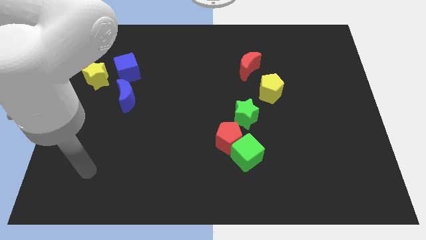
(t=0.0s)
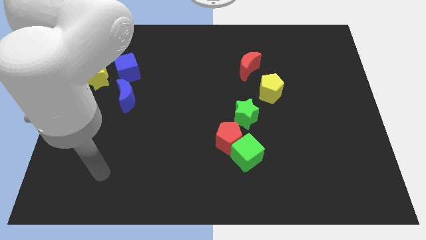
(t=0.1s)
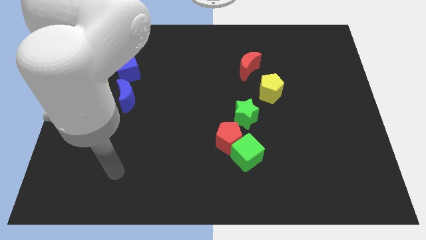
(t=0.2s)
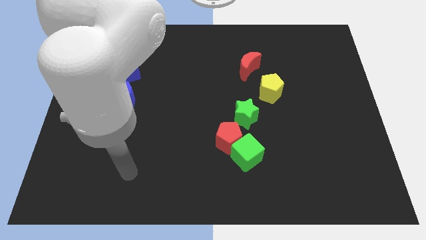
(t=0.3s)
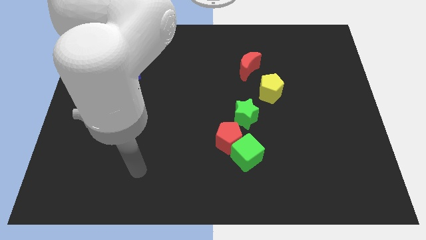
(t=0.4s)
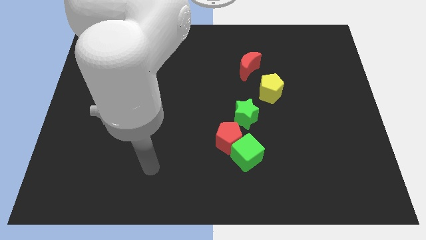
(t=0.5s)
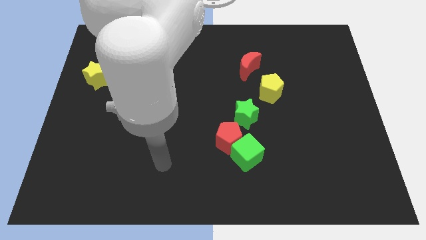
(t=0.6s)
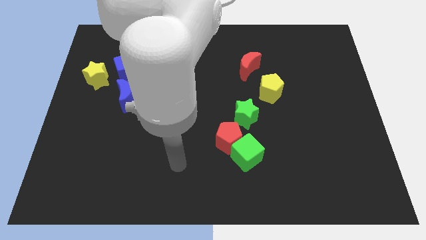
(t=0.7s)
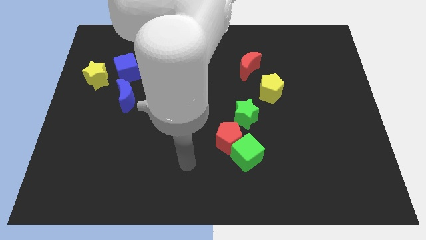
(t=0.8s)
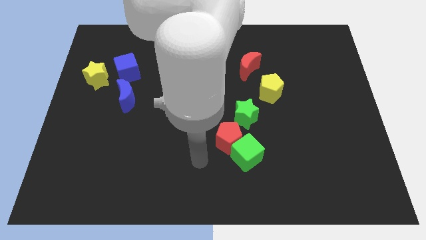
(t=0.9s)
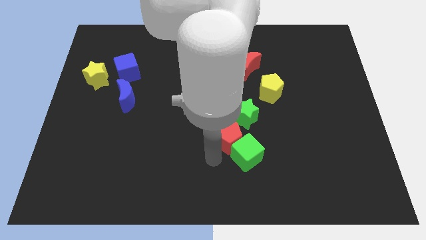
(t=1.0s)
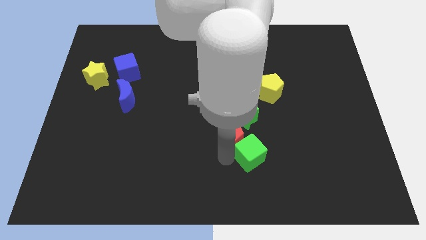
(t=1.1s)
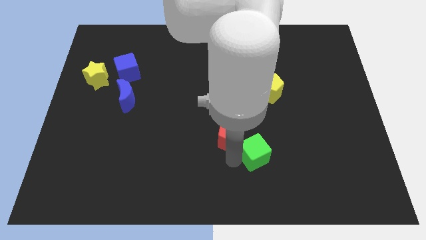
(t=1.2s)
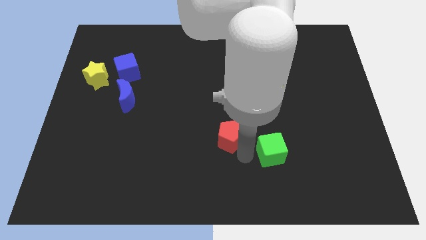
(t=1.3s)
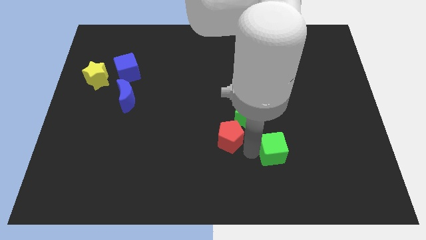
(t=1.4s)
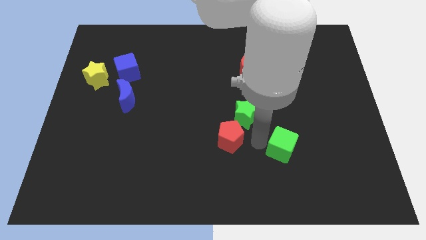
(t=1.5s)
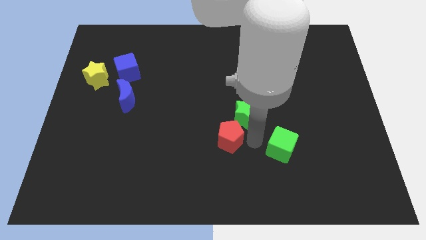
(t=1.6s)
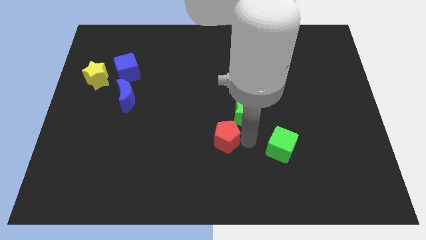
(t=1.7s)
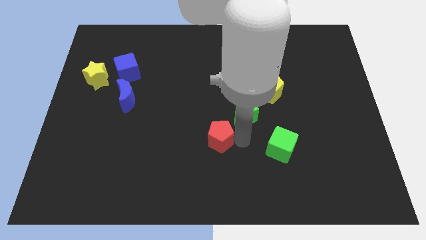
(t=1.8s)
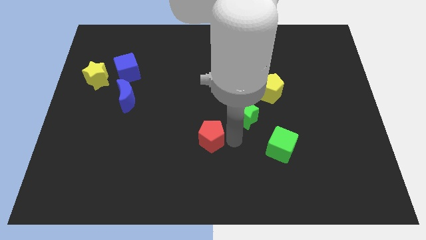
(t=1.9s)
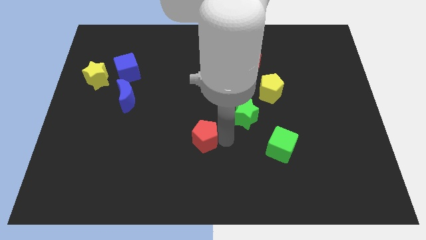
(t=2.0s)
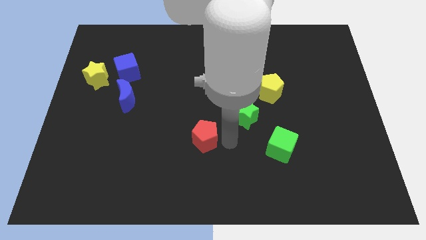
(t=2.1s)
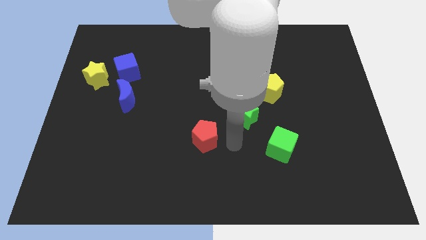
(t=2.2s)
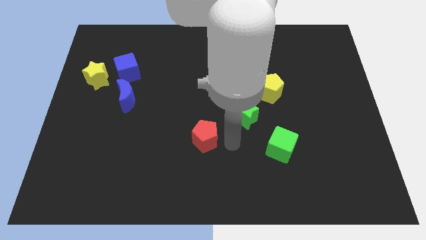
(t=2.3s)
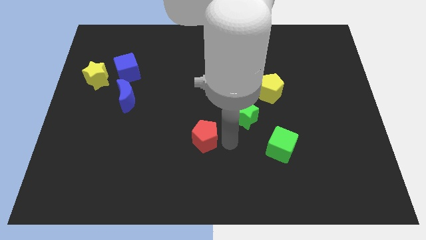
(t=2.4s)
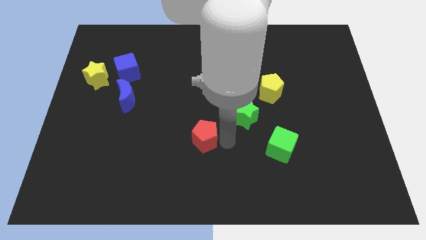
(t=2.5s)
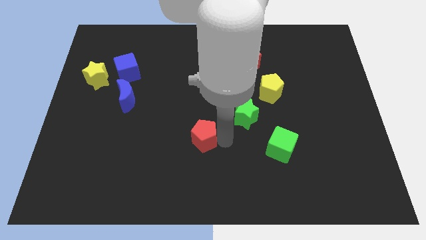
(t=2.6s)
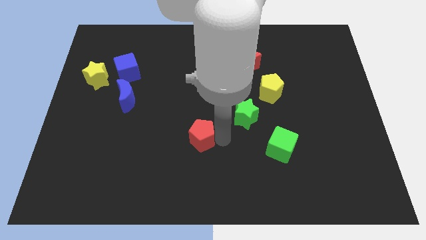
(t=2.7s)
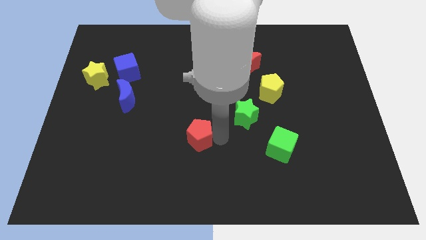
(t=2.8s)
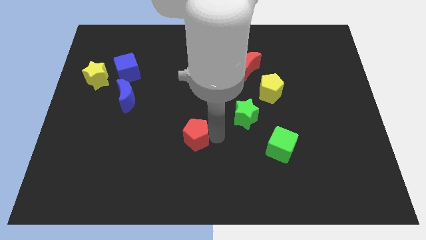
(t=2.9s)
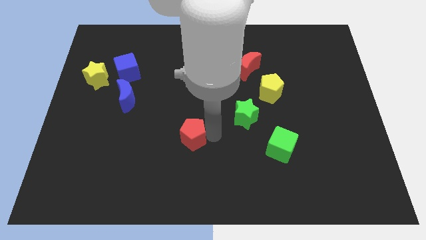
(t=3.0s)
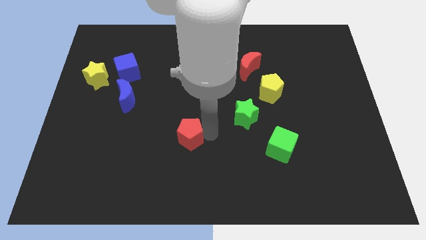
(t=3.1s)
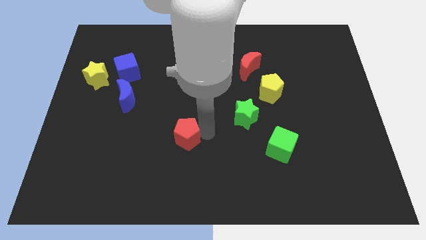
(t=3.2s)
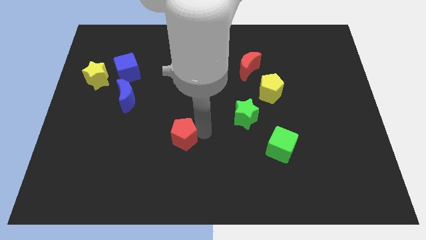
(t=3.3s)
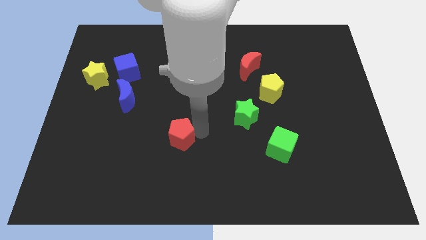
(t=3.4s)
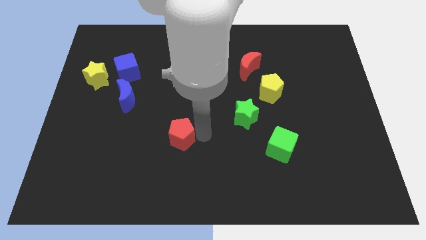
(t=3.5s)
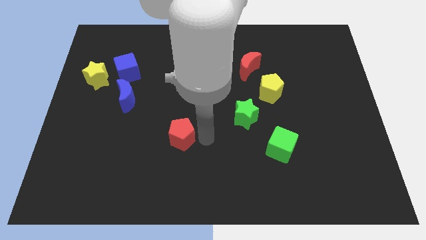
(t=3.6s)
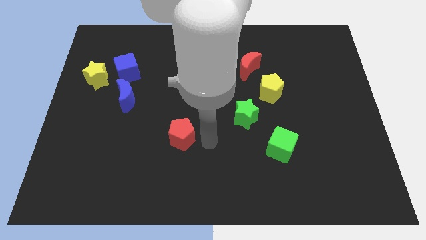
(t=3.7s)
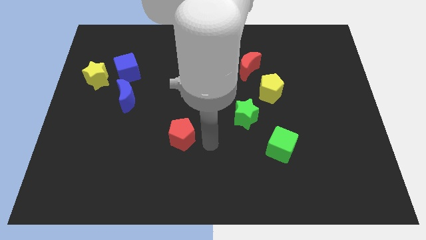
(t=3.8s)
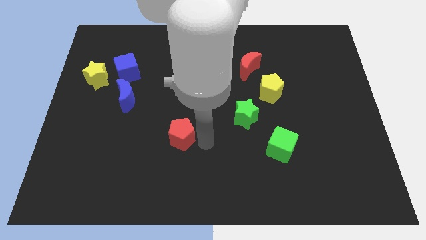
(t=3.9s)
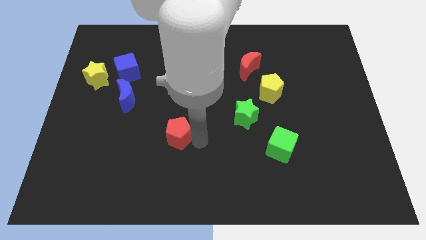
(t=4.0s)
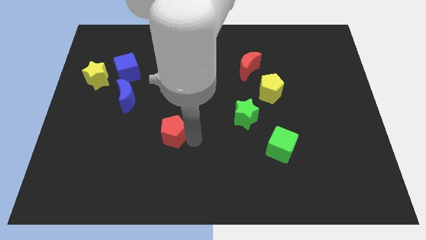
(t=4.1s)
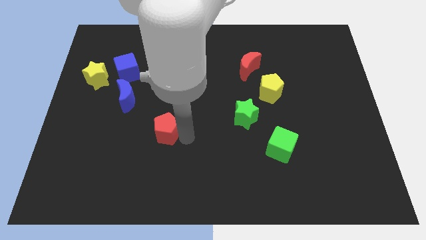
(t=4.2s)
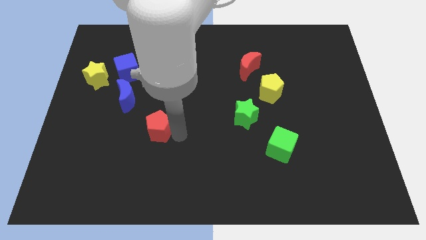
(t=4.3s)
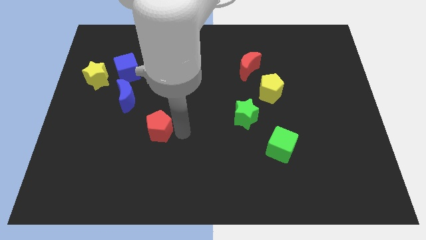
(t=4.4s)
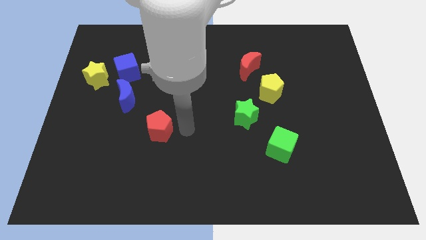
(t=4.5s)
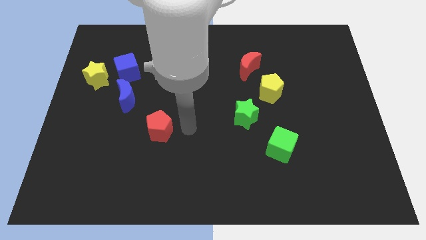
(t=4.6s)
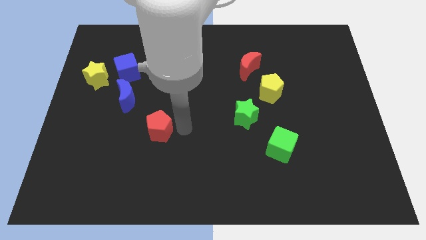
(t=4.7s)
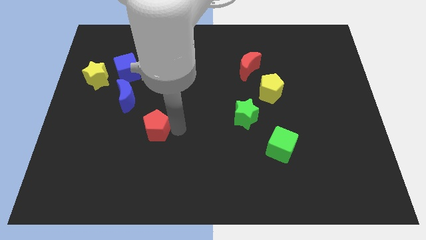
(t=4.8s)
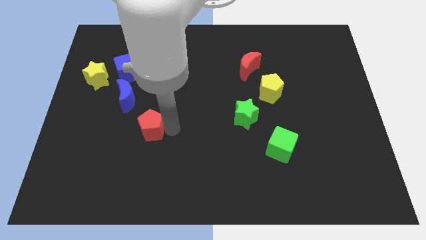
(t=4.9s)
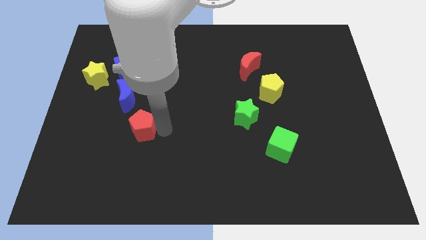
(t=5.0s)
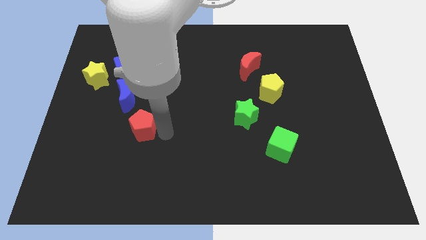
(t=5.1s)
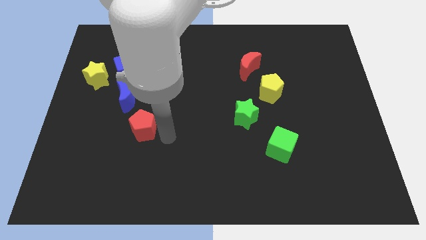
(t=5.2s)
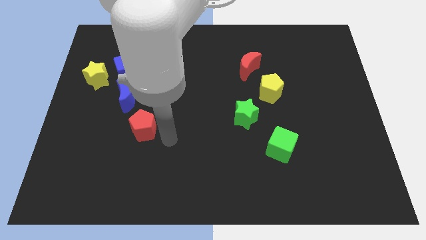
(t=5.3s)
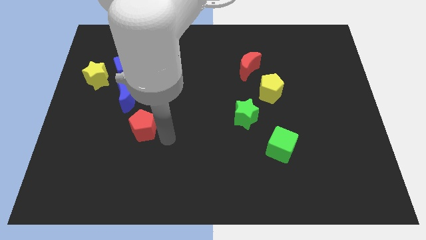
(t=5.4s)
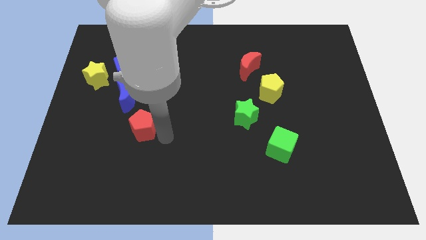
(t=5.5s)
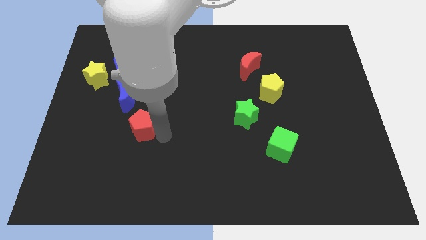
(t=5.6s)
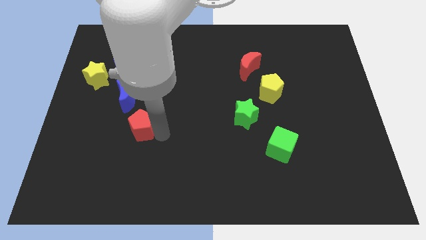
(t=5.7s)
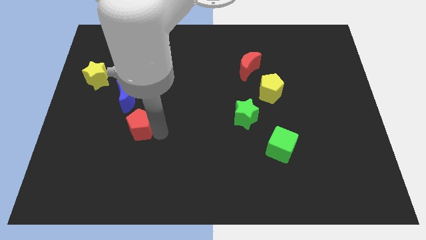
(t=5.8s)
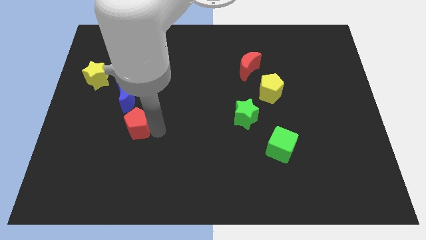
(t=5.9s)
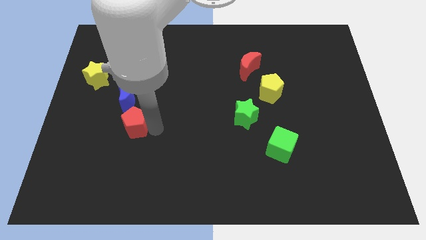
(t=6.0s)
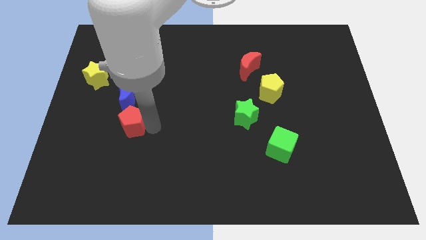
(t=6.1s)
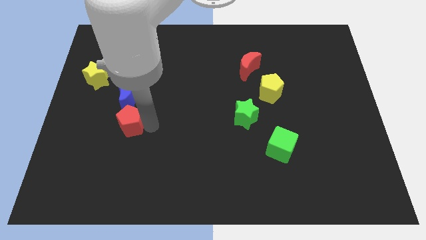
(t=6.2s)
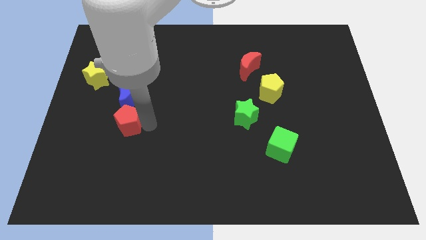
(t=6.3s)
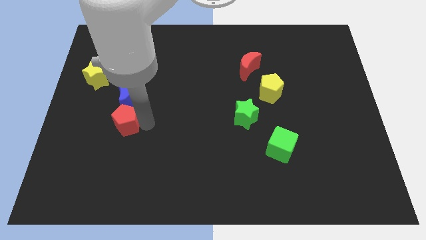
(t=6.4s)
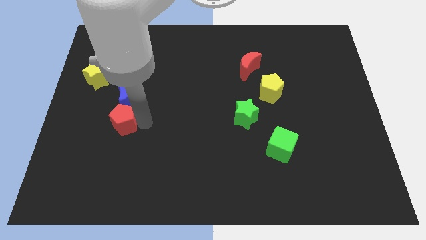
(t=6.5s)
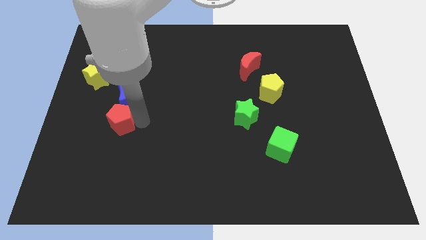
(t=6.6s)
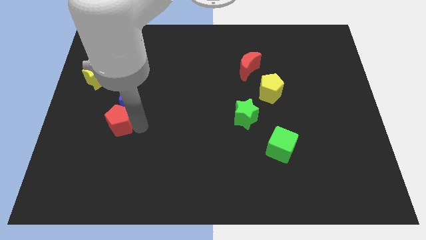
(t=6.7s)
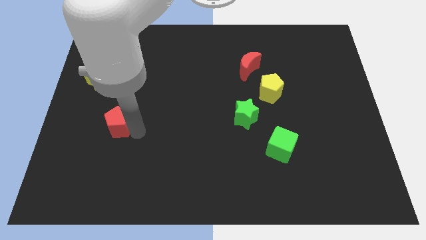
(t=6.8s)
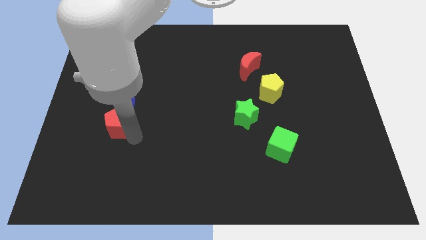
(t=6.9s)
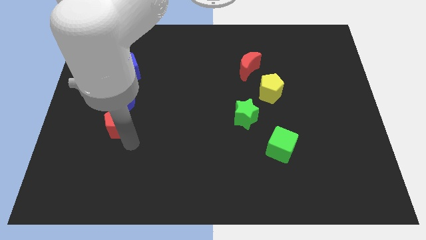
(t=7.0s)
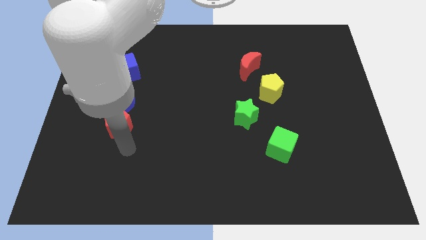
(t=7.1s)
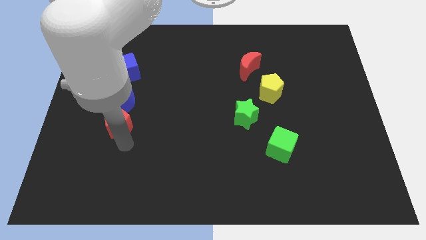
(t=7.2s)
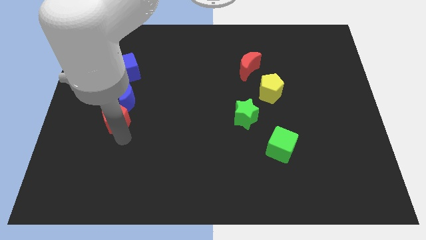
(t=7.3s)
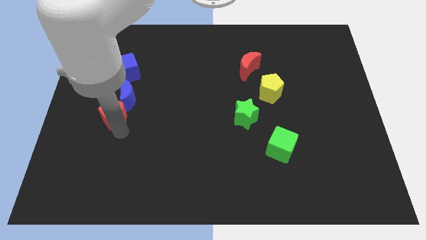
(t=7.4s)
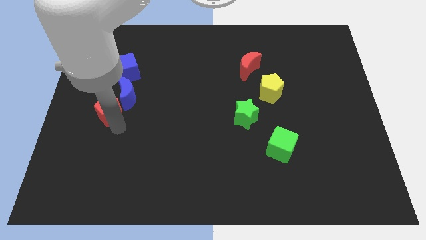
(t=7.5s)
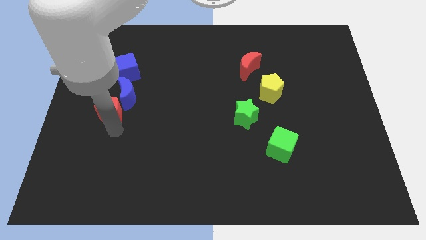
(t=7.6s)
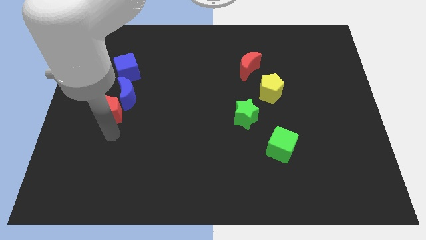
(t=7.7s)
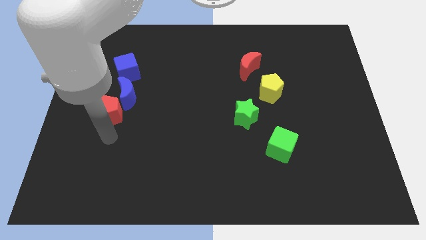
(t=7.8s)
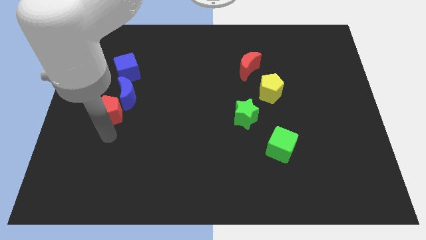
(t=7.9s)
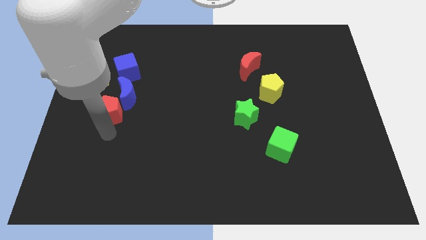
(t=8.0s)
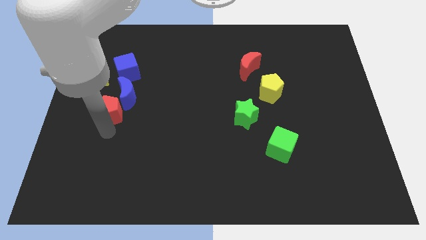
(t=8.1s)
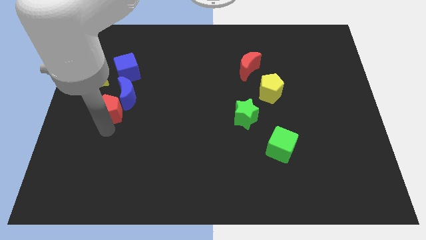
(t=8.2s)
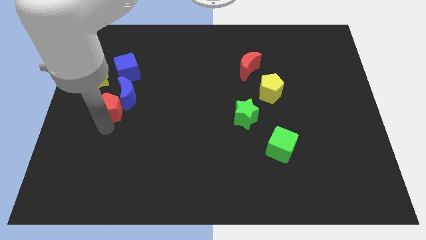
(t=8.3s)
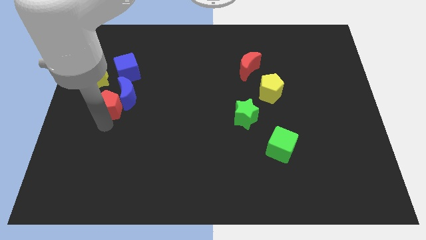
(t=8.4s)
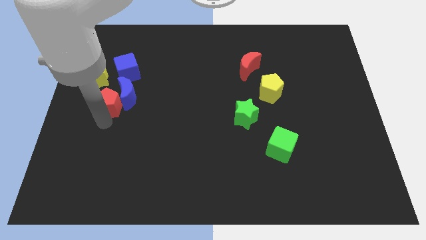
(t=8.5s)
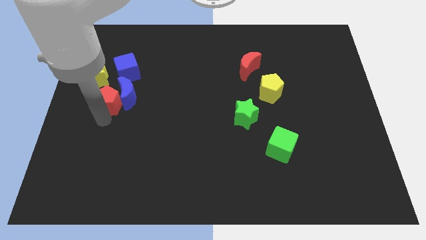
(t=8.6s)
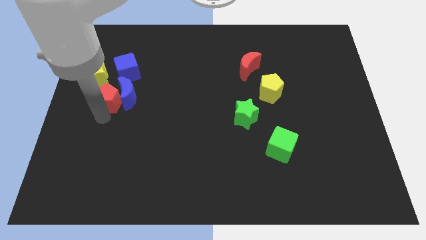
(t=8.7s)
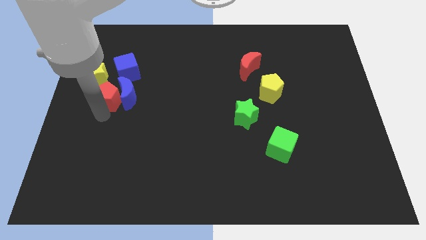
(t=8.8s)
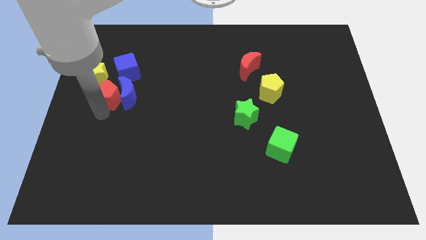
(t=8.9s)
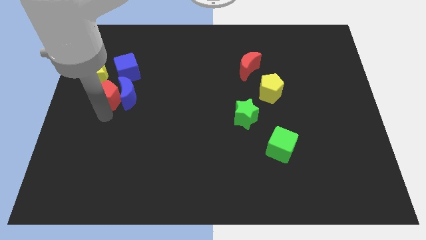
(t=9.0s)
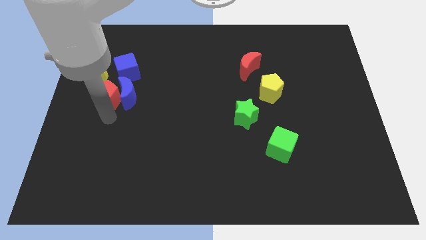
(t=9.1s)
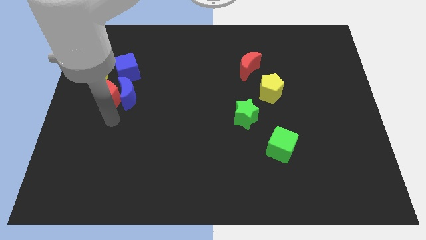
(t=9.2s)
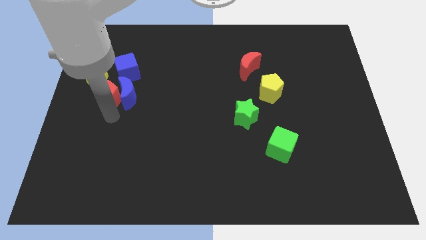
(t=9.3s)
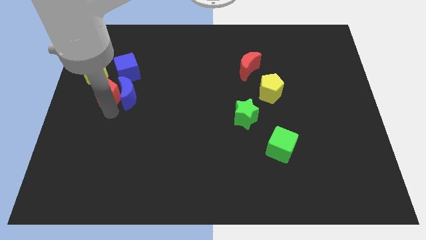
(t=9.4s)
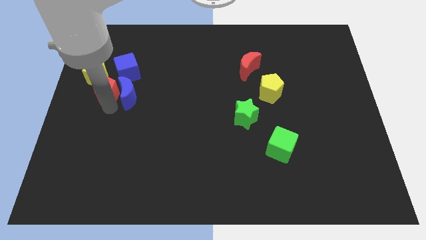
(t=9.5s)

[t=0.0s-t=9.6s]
move the red pentagon towards the yellow star
